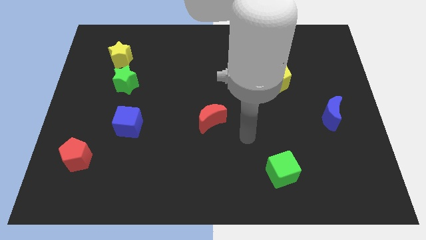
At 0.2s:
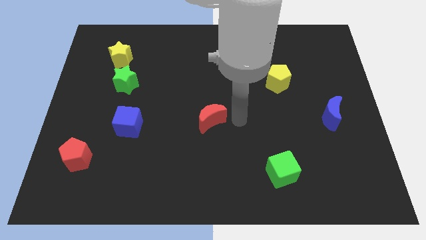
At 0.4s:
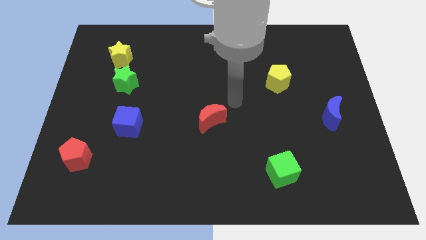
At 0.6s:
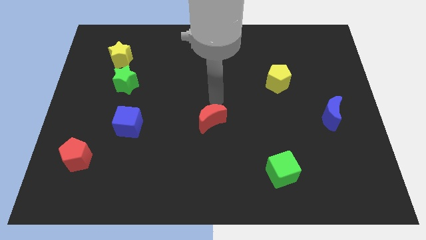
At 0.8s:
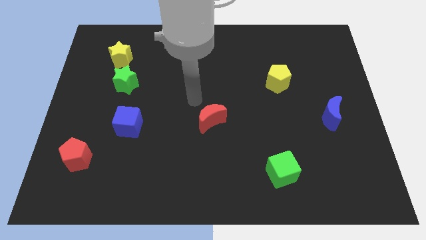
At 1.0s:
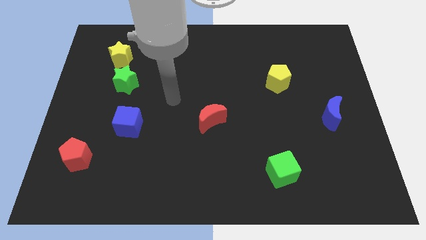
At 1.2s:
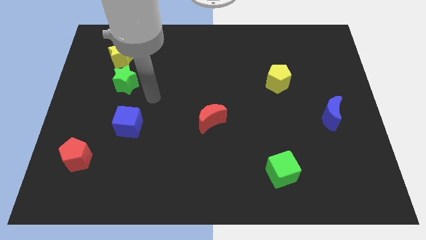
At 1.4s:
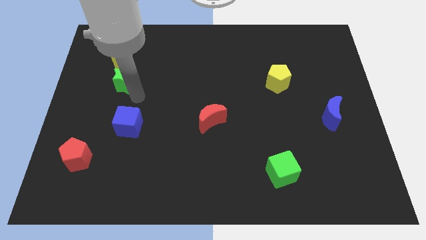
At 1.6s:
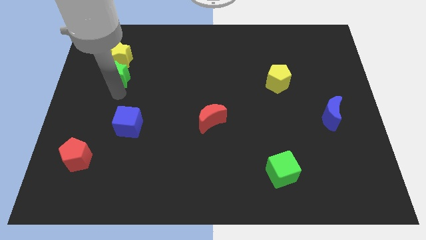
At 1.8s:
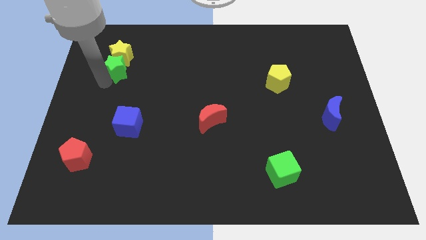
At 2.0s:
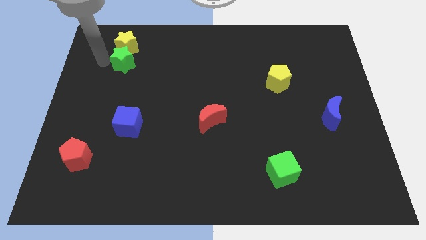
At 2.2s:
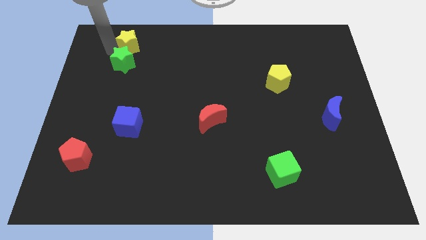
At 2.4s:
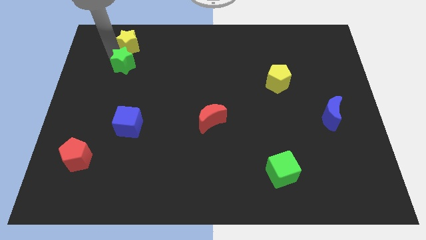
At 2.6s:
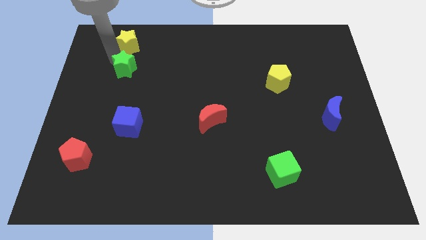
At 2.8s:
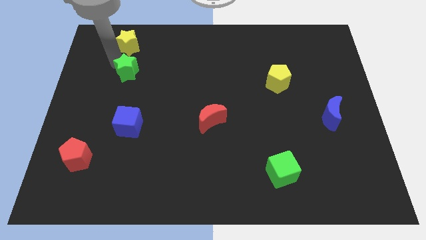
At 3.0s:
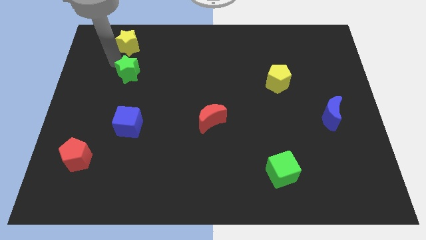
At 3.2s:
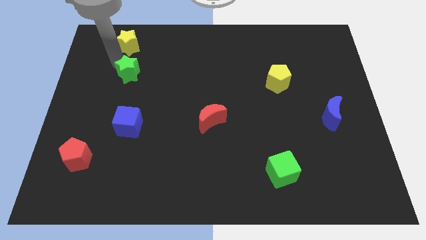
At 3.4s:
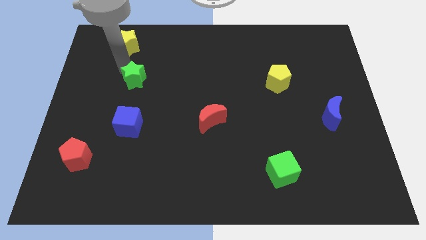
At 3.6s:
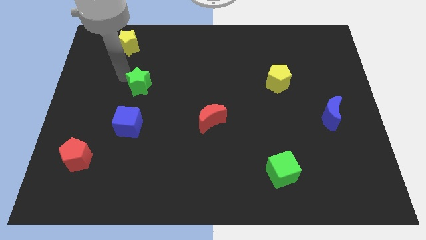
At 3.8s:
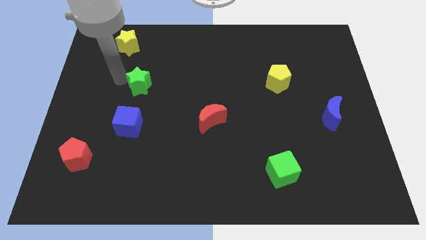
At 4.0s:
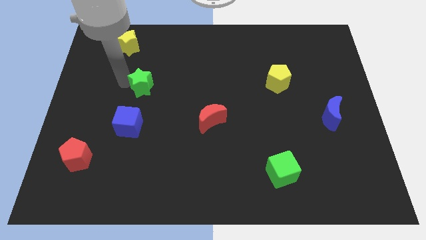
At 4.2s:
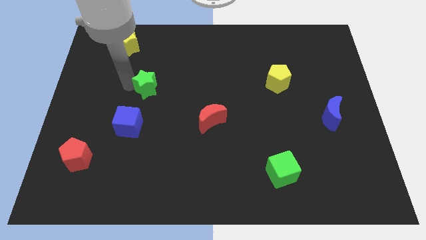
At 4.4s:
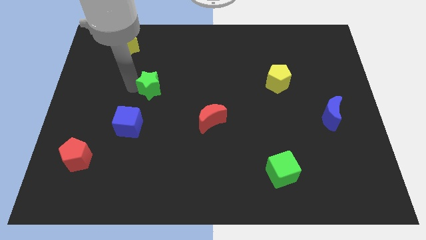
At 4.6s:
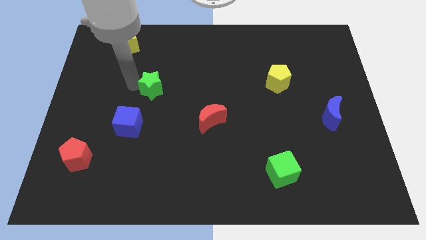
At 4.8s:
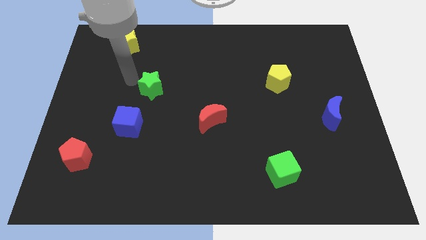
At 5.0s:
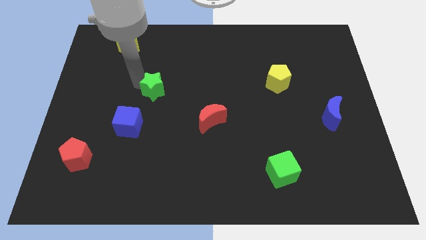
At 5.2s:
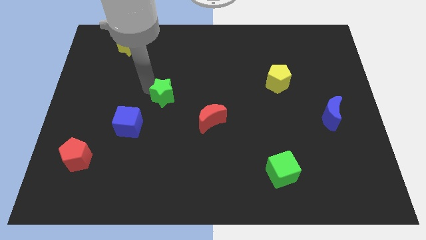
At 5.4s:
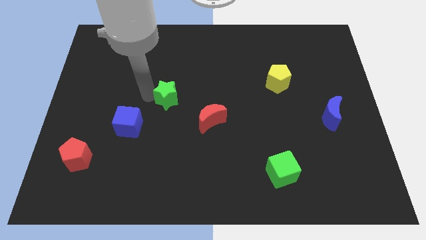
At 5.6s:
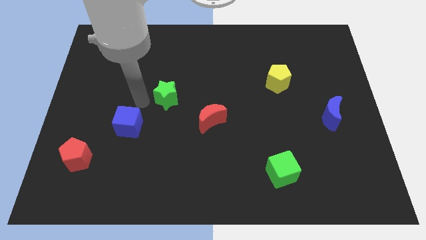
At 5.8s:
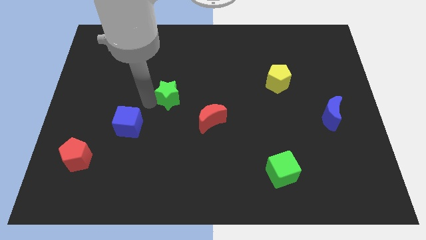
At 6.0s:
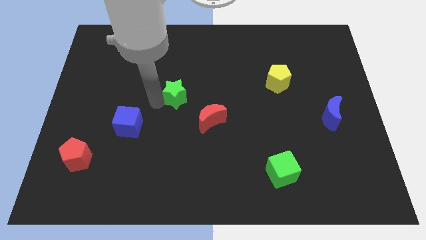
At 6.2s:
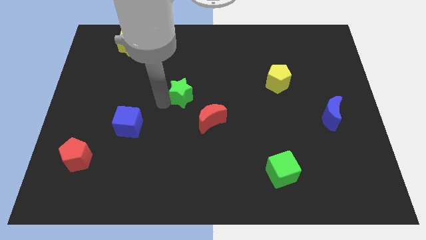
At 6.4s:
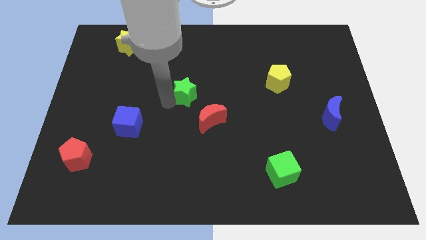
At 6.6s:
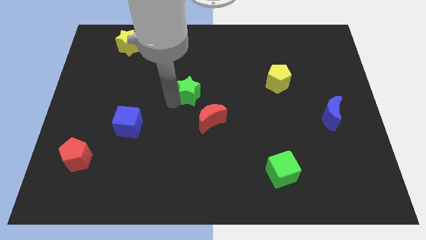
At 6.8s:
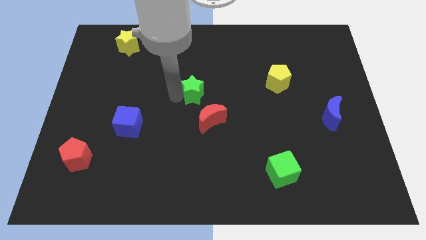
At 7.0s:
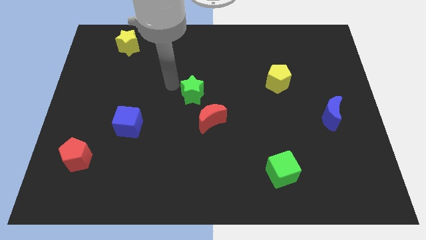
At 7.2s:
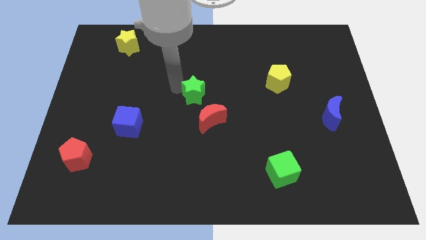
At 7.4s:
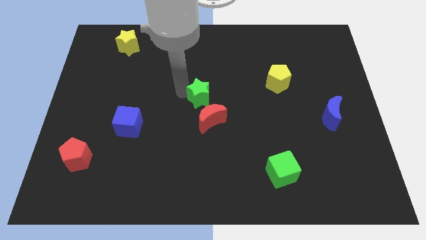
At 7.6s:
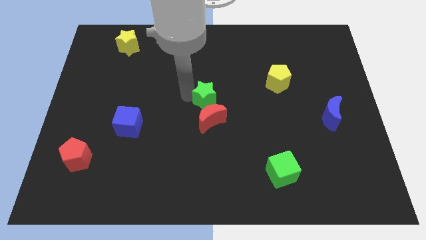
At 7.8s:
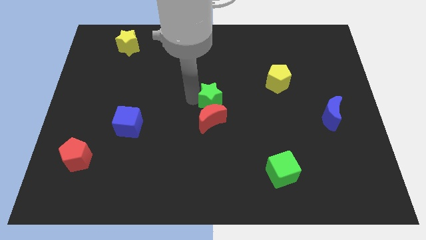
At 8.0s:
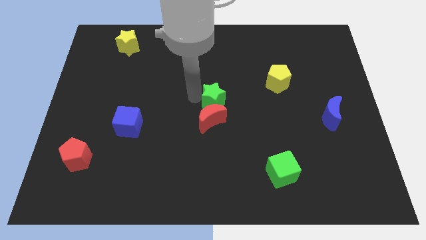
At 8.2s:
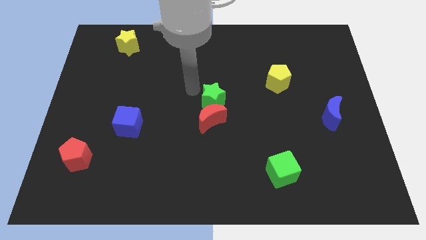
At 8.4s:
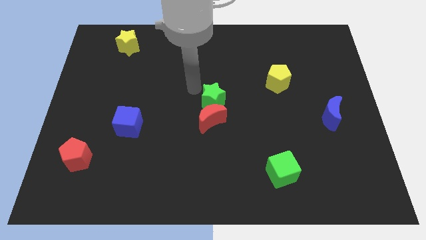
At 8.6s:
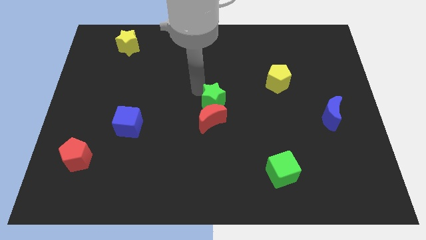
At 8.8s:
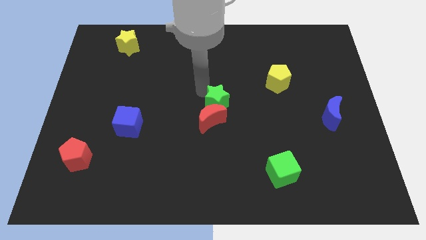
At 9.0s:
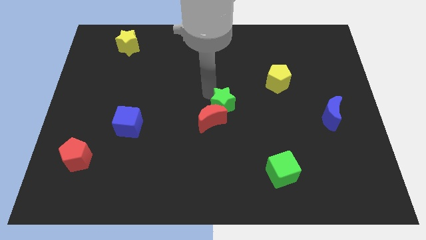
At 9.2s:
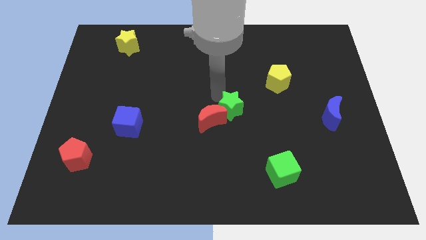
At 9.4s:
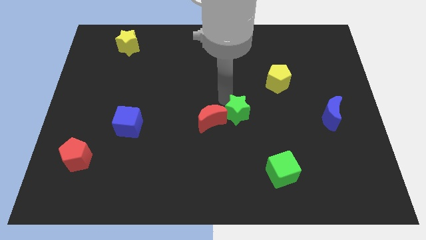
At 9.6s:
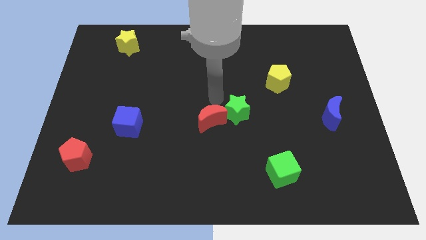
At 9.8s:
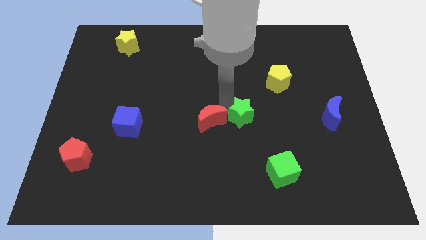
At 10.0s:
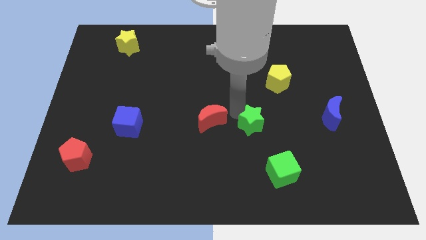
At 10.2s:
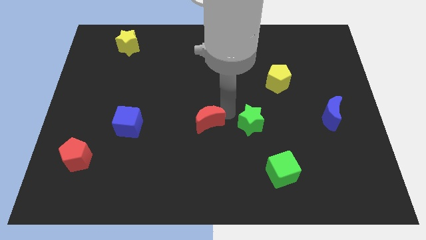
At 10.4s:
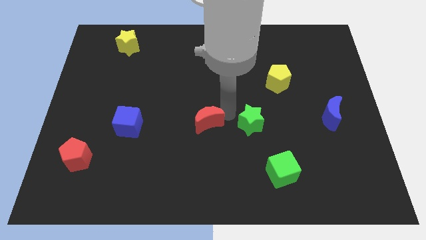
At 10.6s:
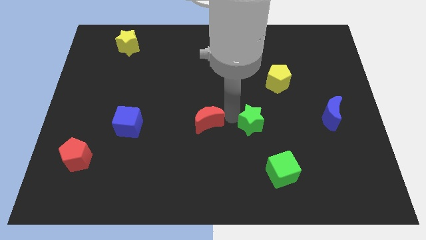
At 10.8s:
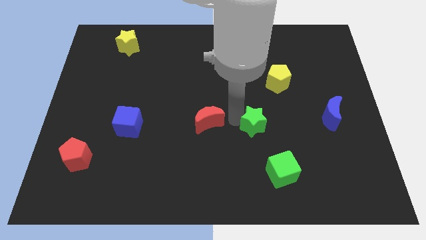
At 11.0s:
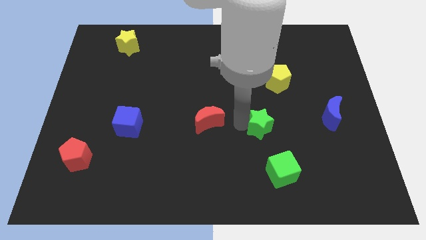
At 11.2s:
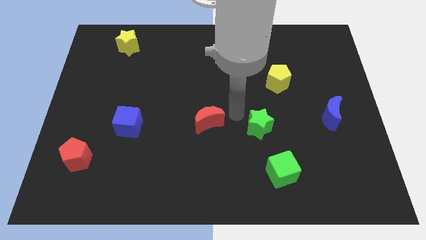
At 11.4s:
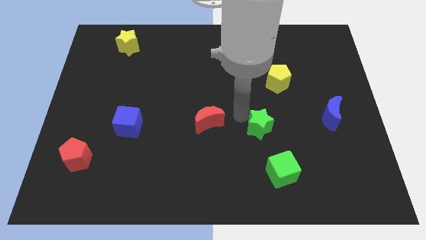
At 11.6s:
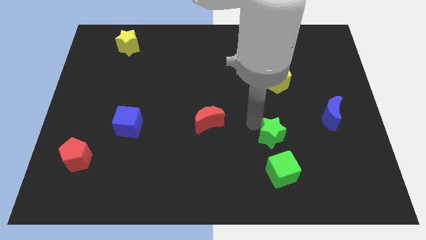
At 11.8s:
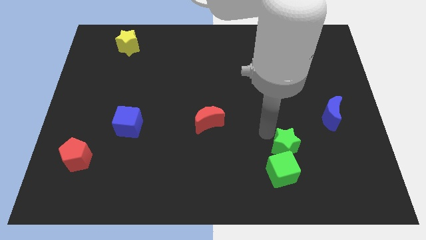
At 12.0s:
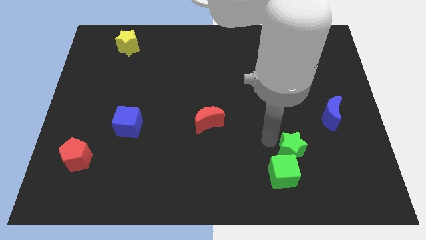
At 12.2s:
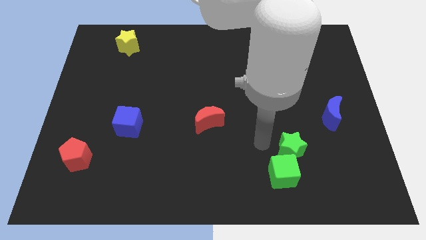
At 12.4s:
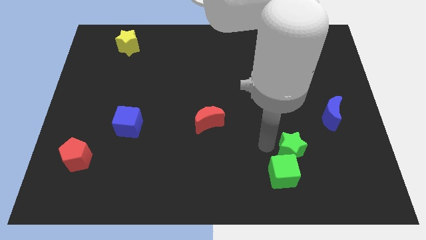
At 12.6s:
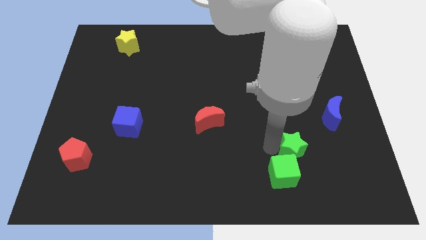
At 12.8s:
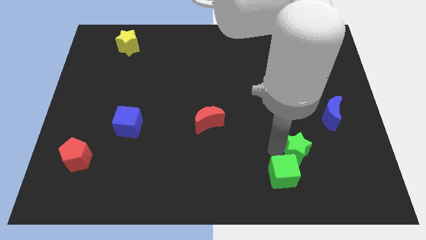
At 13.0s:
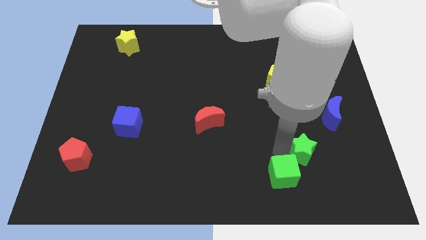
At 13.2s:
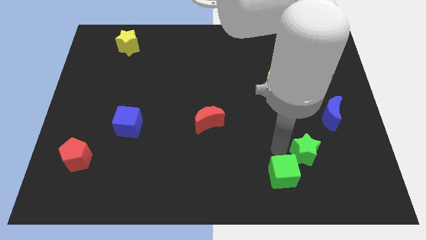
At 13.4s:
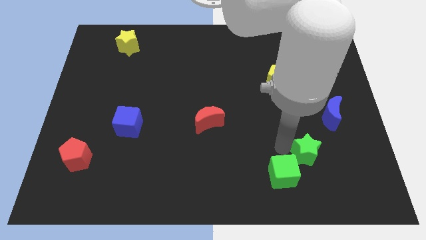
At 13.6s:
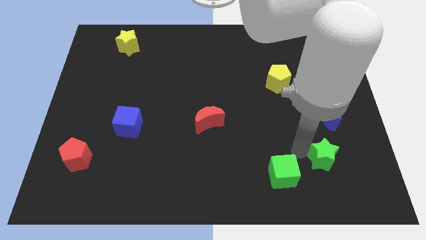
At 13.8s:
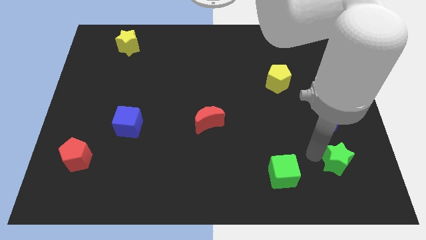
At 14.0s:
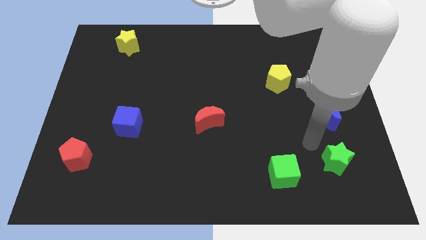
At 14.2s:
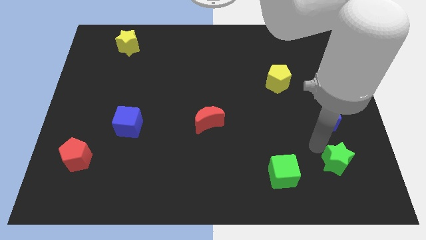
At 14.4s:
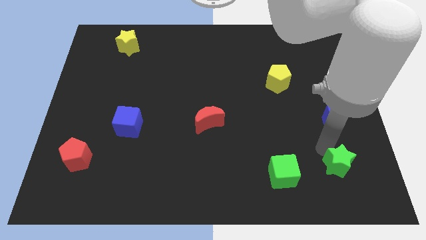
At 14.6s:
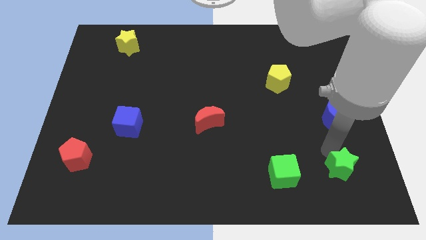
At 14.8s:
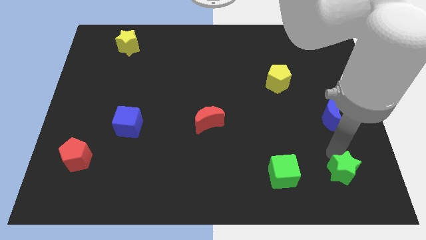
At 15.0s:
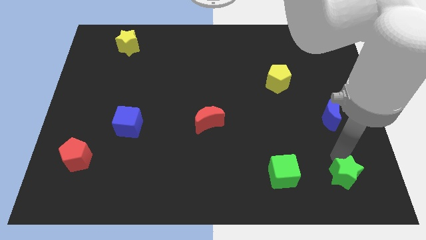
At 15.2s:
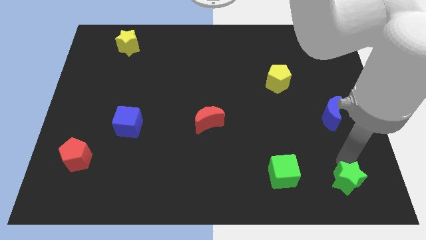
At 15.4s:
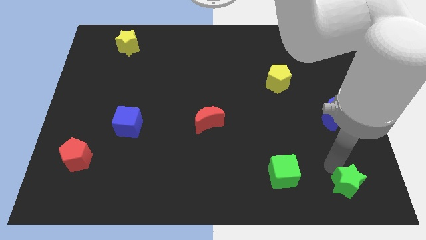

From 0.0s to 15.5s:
put the green star to the bottom right of the board
